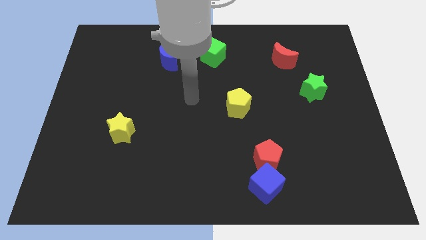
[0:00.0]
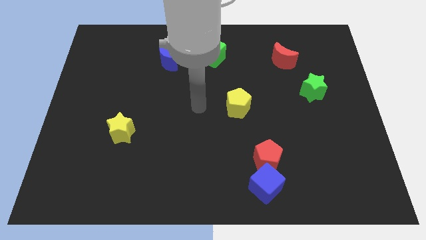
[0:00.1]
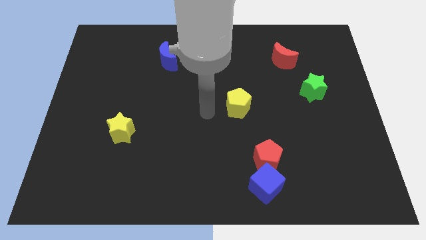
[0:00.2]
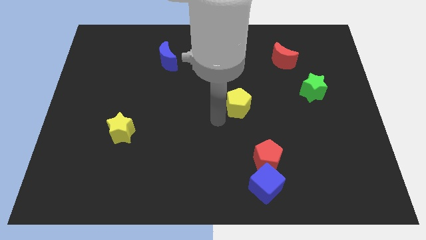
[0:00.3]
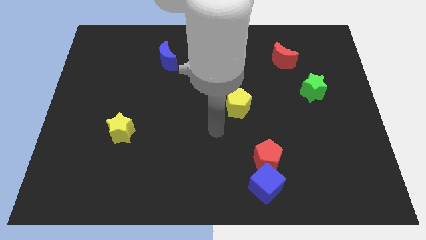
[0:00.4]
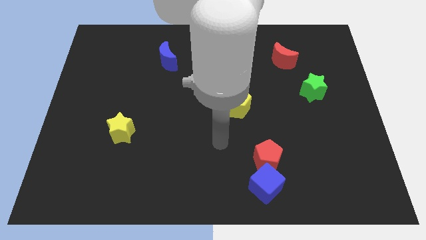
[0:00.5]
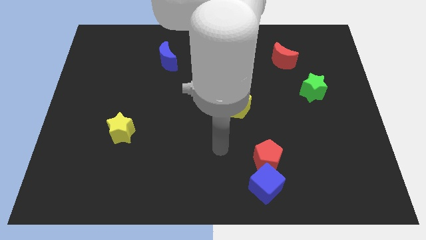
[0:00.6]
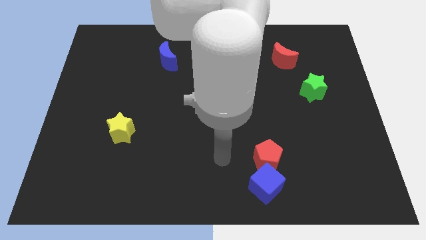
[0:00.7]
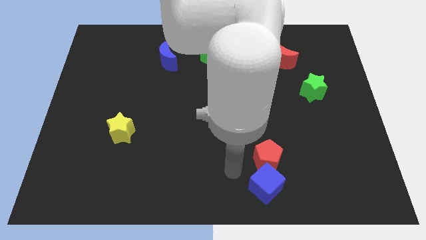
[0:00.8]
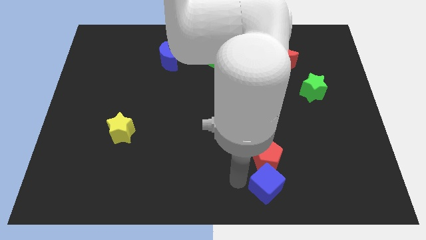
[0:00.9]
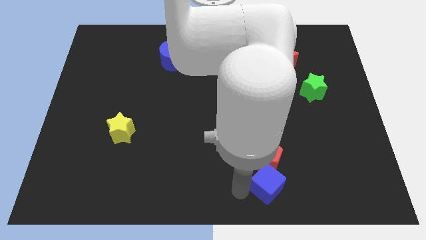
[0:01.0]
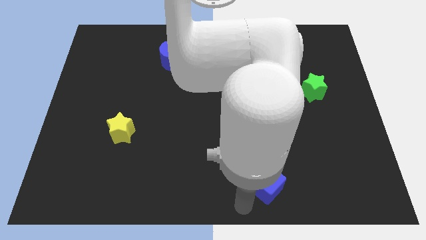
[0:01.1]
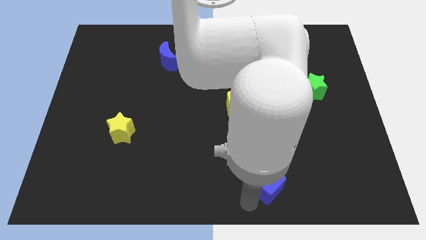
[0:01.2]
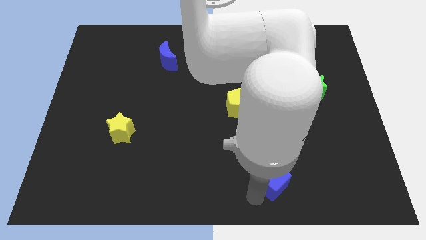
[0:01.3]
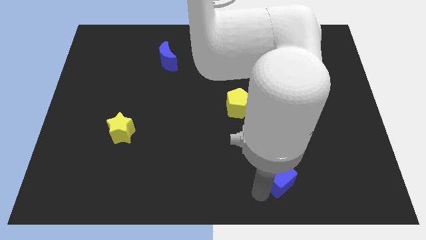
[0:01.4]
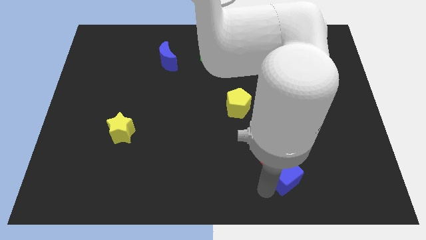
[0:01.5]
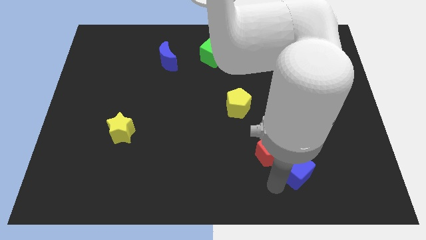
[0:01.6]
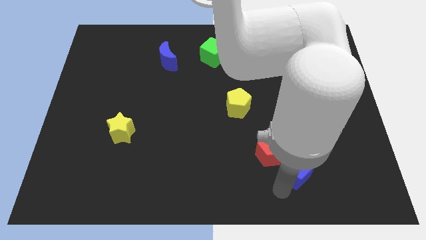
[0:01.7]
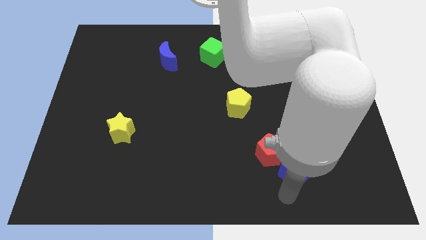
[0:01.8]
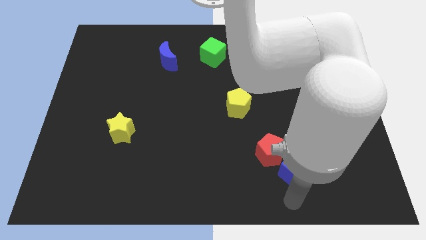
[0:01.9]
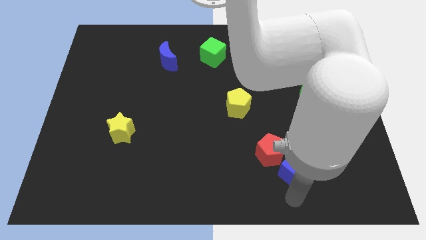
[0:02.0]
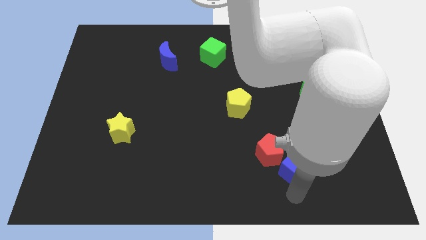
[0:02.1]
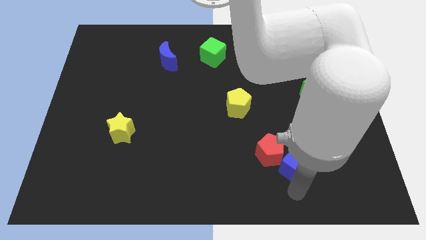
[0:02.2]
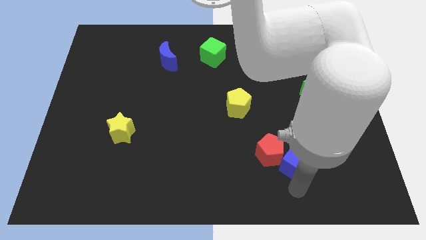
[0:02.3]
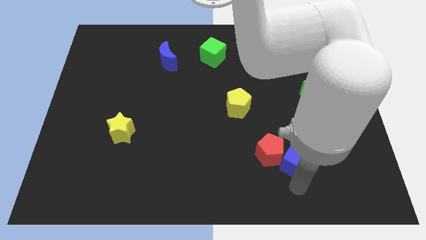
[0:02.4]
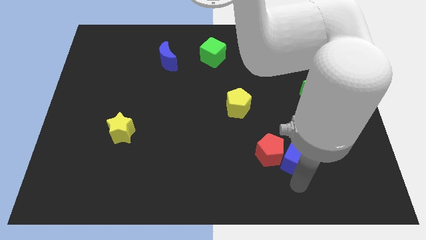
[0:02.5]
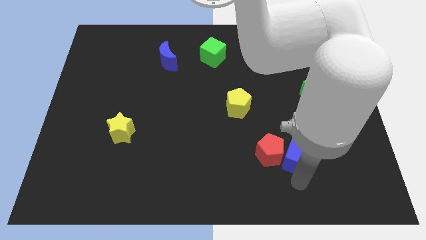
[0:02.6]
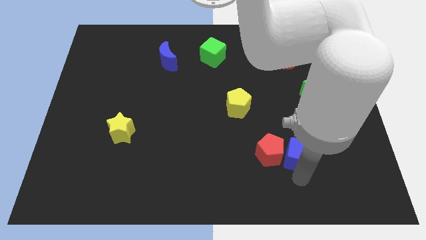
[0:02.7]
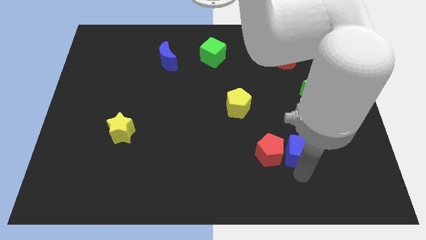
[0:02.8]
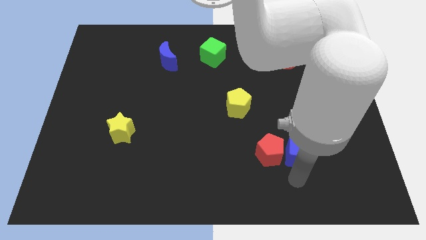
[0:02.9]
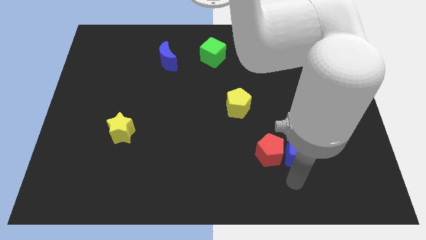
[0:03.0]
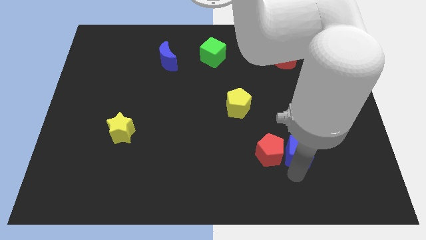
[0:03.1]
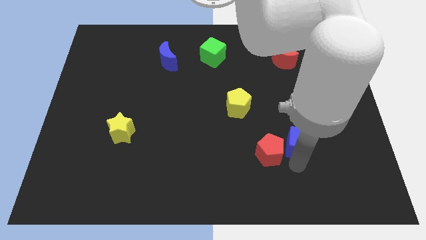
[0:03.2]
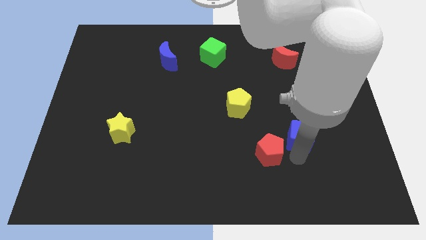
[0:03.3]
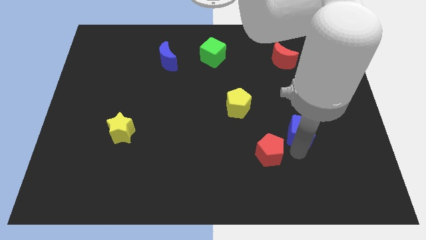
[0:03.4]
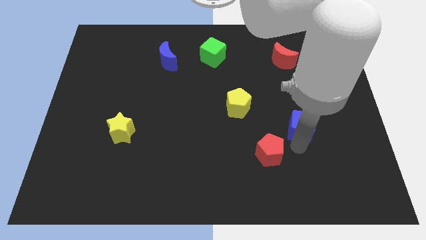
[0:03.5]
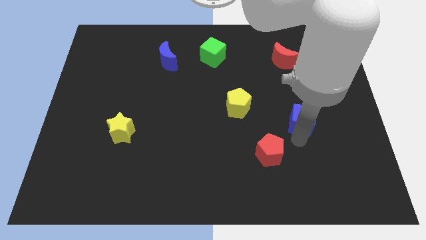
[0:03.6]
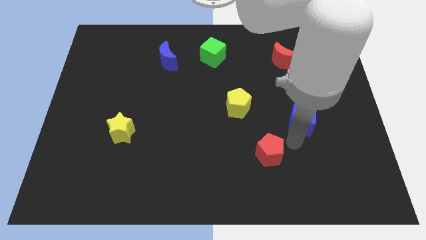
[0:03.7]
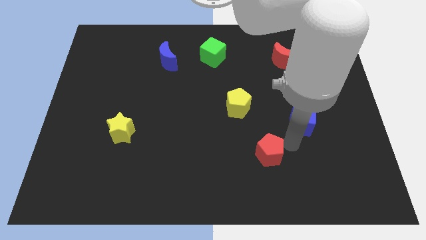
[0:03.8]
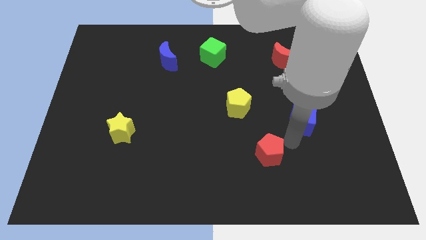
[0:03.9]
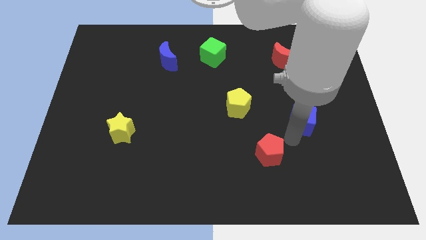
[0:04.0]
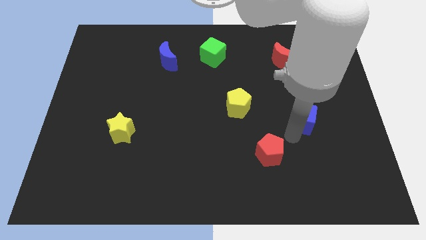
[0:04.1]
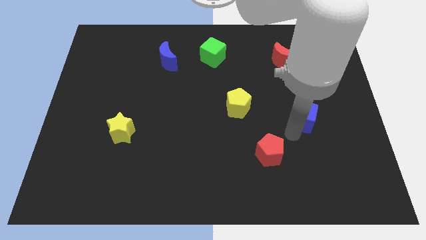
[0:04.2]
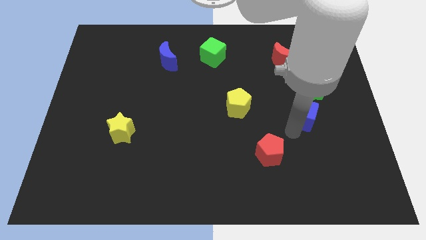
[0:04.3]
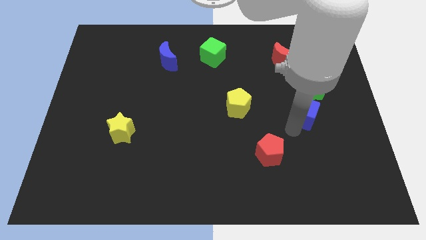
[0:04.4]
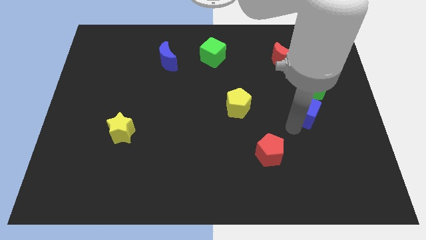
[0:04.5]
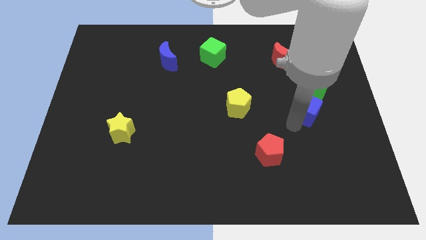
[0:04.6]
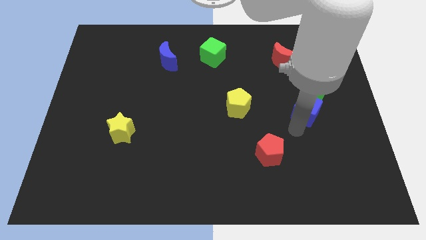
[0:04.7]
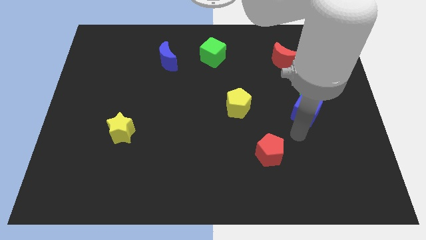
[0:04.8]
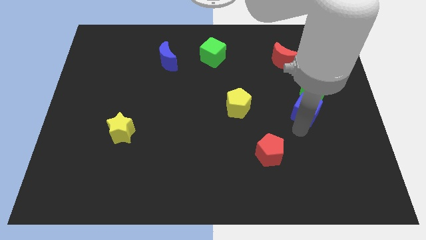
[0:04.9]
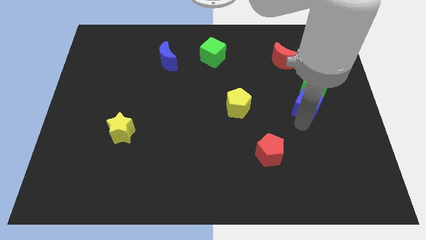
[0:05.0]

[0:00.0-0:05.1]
put the blue cube next to the green star

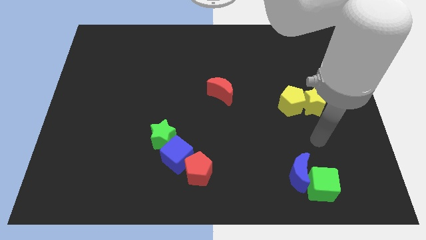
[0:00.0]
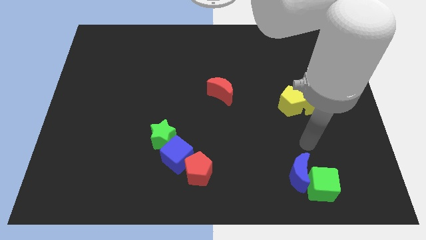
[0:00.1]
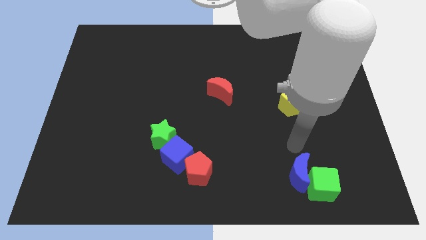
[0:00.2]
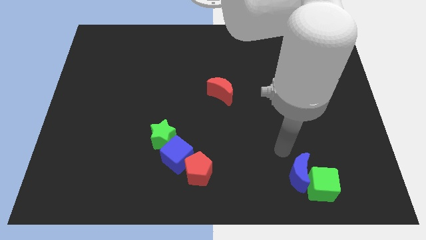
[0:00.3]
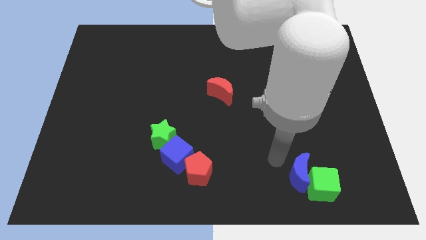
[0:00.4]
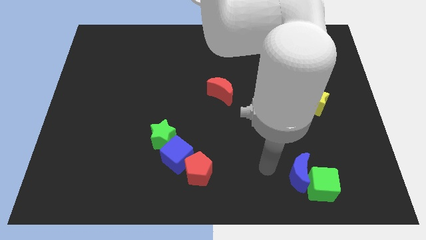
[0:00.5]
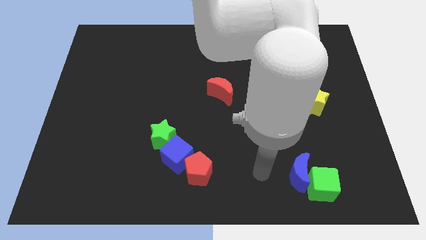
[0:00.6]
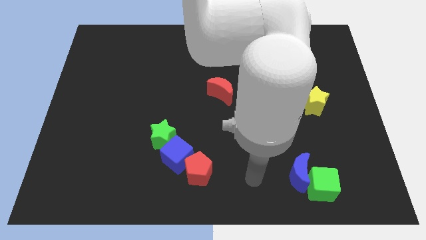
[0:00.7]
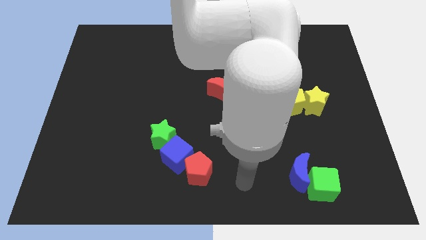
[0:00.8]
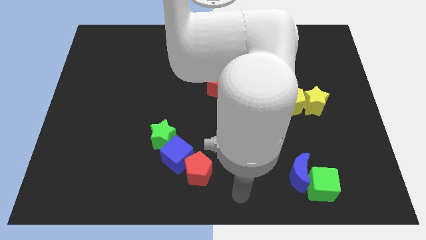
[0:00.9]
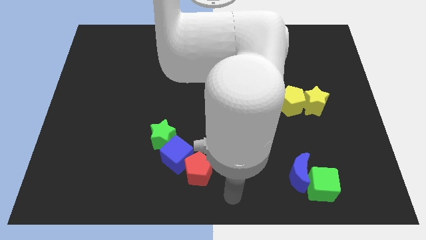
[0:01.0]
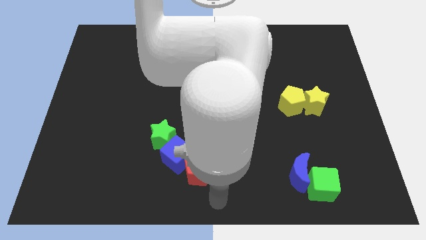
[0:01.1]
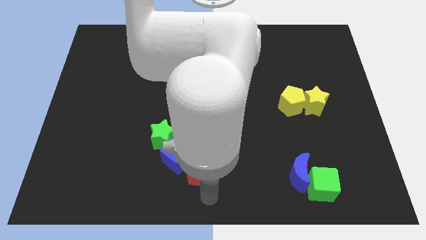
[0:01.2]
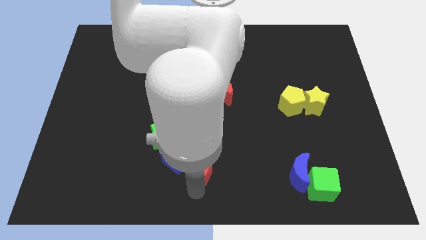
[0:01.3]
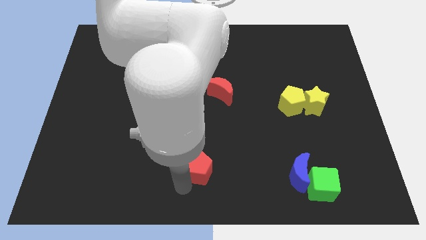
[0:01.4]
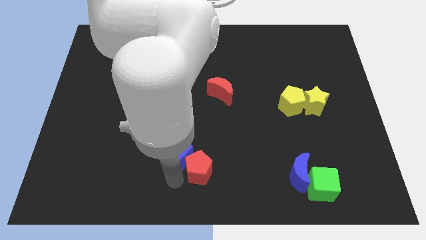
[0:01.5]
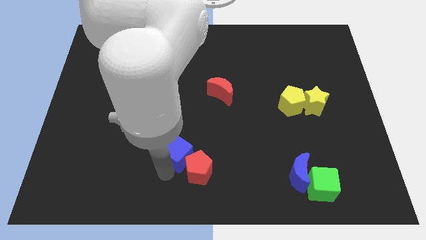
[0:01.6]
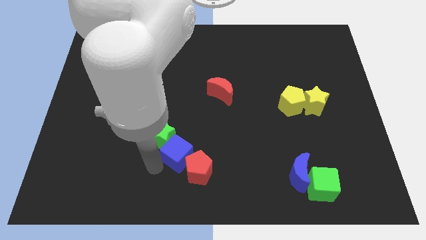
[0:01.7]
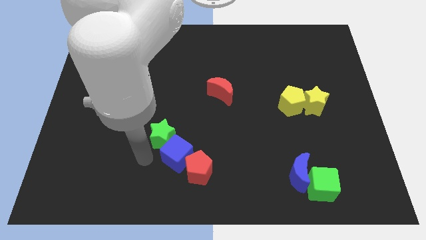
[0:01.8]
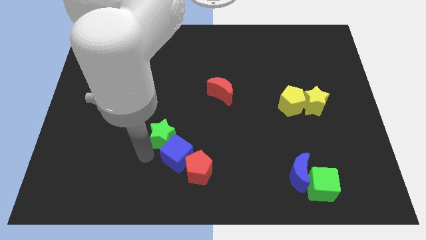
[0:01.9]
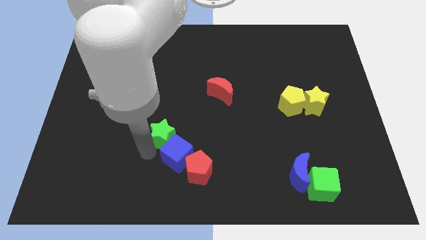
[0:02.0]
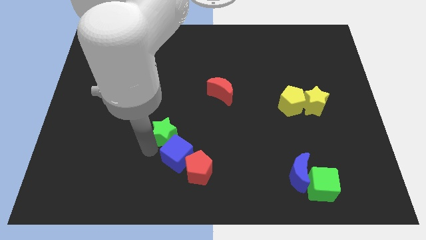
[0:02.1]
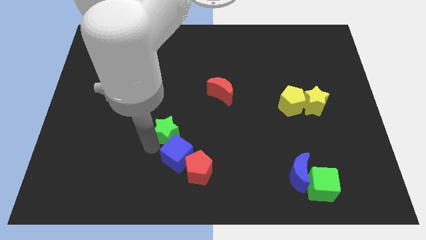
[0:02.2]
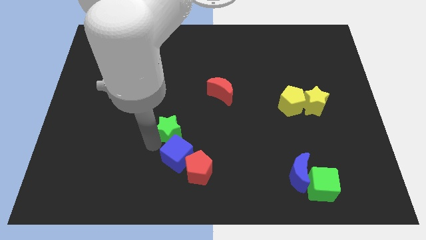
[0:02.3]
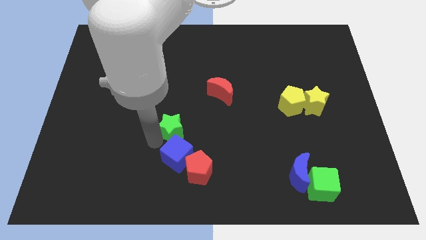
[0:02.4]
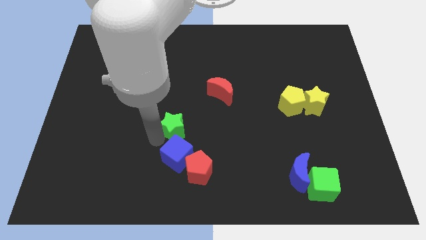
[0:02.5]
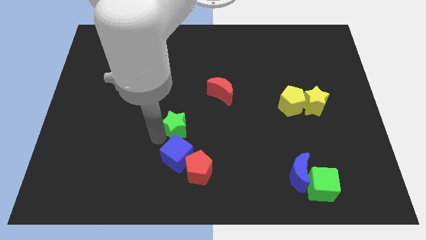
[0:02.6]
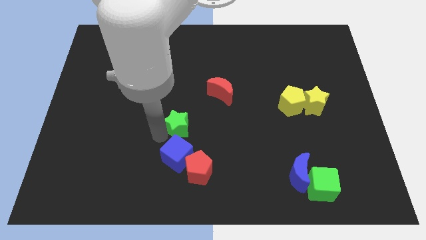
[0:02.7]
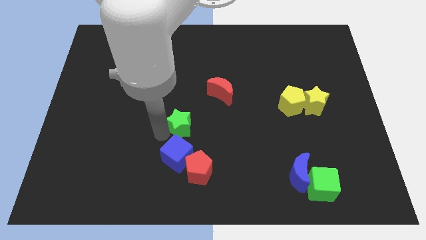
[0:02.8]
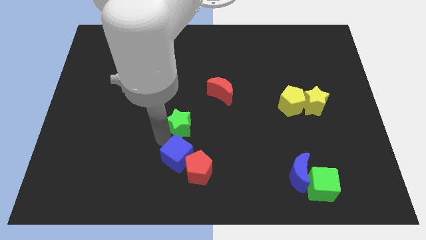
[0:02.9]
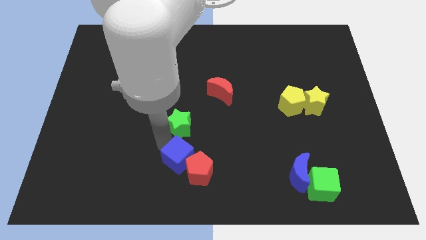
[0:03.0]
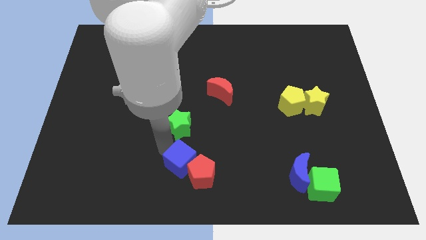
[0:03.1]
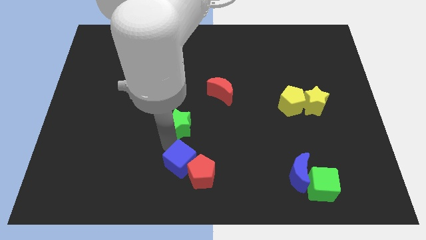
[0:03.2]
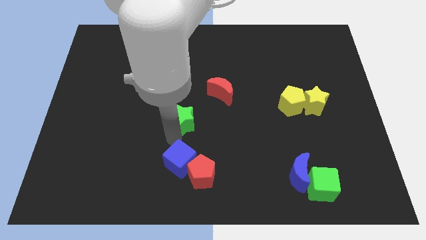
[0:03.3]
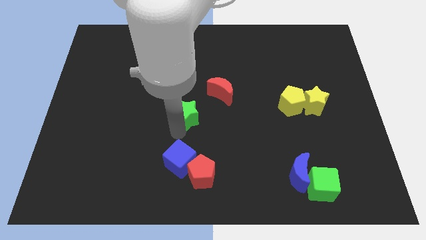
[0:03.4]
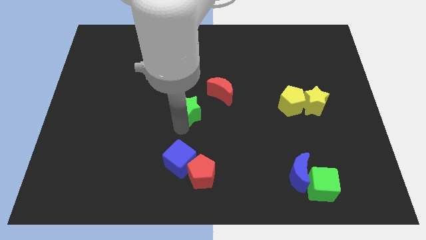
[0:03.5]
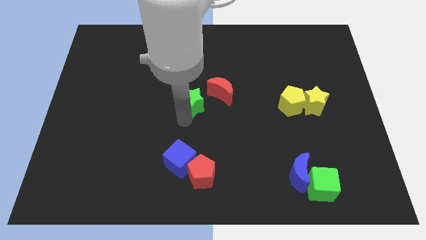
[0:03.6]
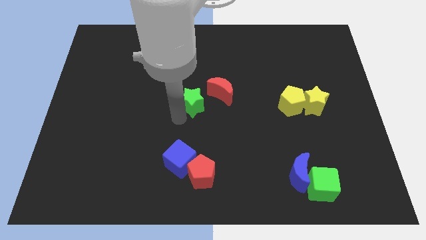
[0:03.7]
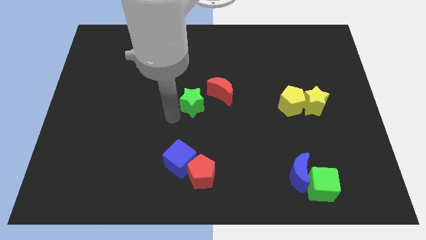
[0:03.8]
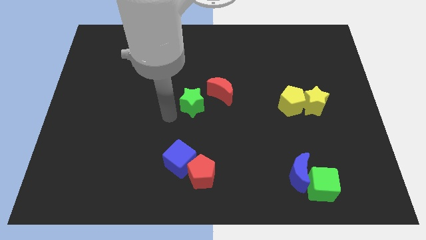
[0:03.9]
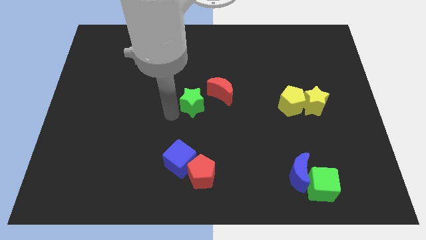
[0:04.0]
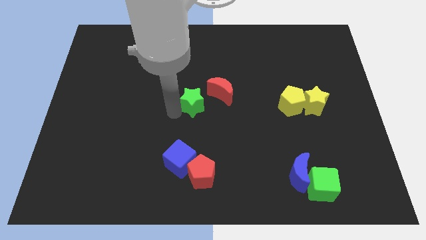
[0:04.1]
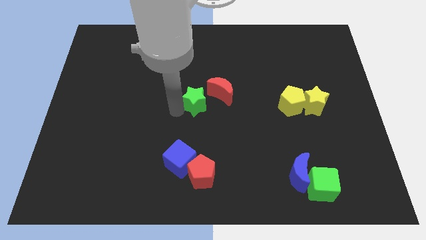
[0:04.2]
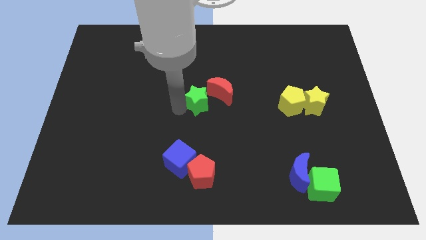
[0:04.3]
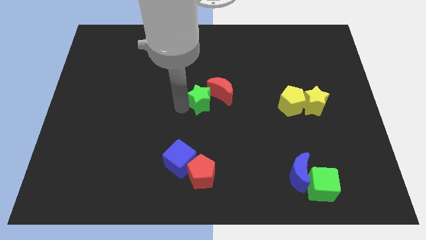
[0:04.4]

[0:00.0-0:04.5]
put the green star towards the red moon
